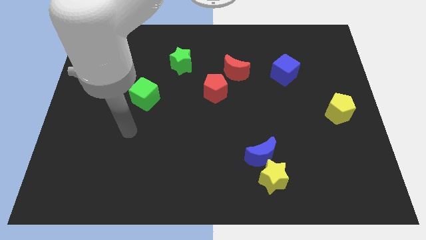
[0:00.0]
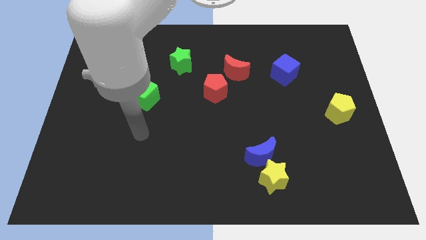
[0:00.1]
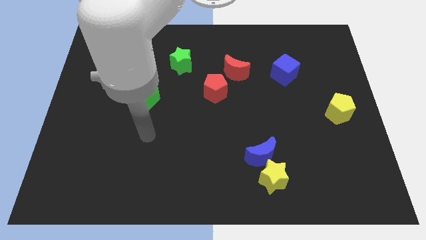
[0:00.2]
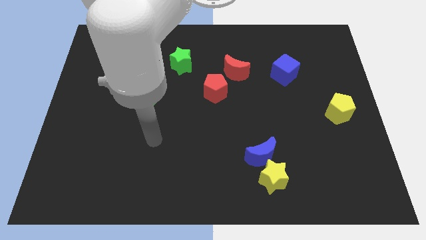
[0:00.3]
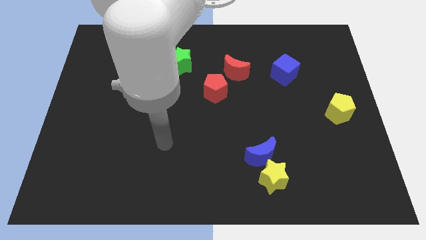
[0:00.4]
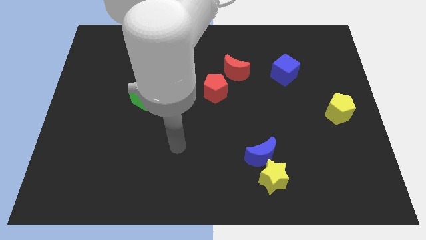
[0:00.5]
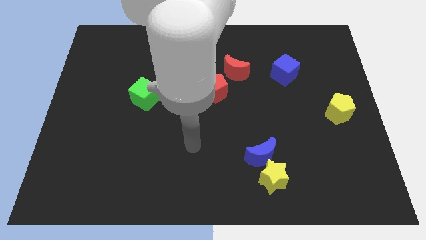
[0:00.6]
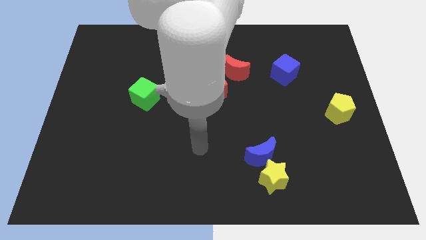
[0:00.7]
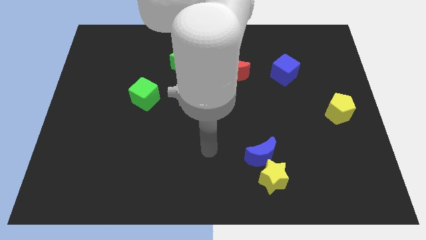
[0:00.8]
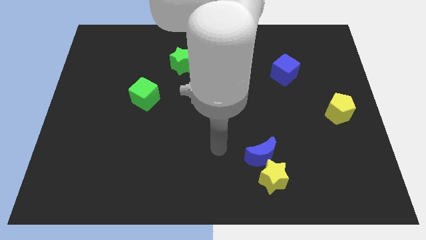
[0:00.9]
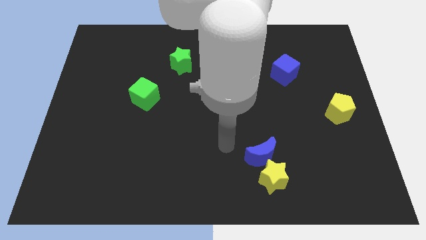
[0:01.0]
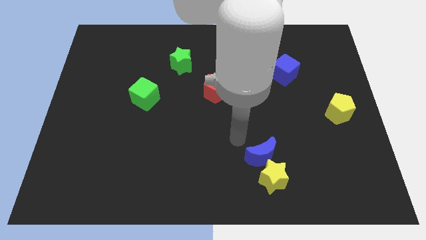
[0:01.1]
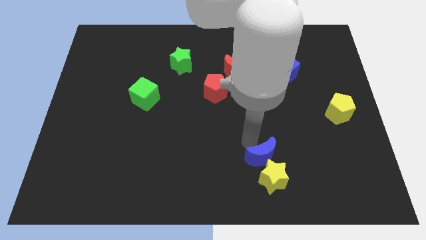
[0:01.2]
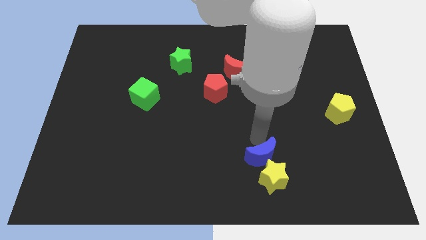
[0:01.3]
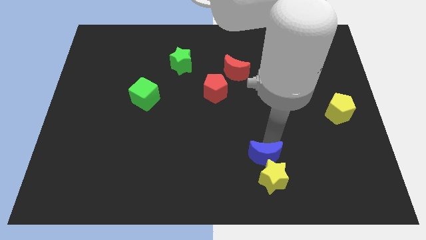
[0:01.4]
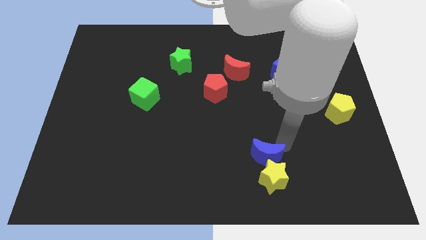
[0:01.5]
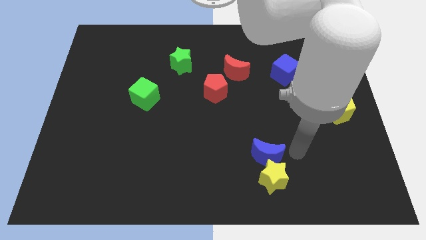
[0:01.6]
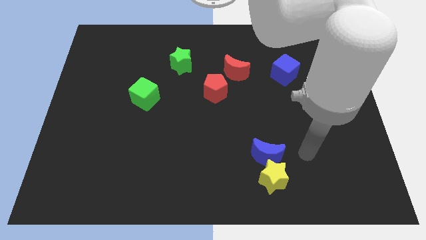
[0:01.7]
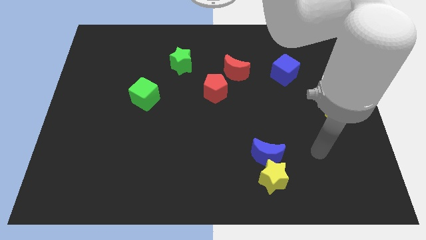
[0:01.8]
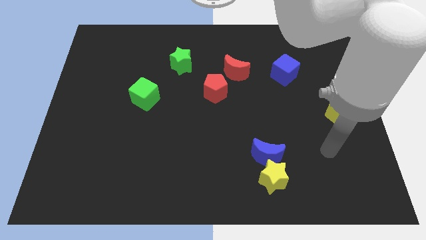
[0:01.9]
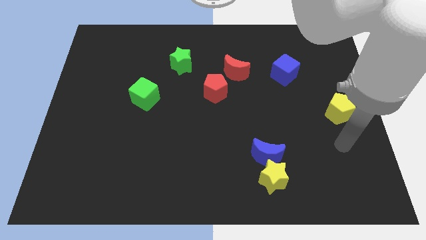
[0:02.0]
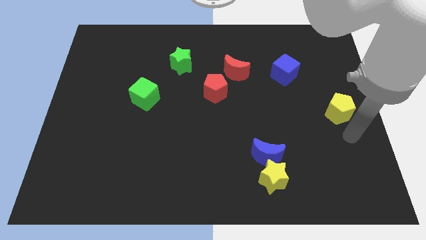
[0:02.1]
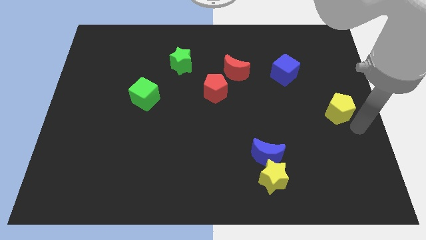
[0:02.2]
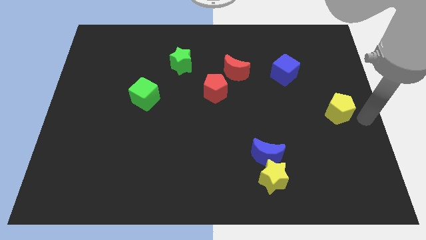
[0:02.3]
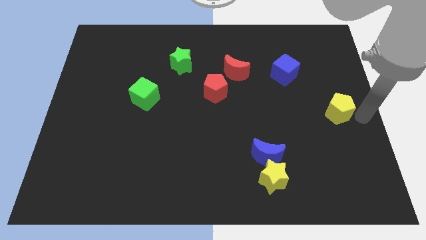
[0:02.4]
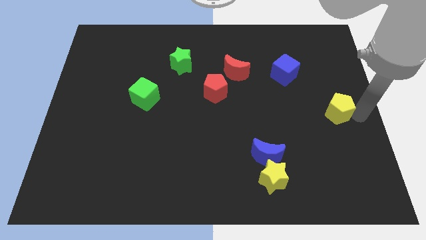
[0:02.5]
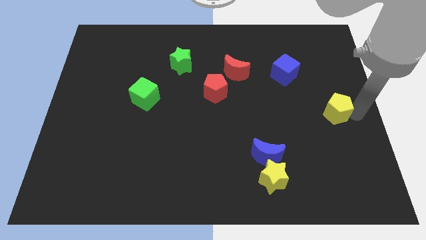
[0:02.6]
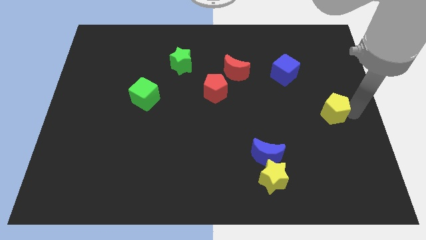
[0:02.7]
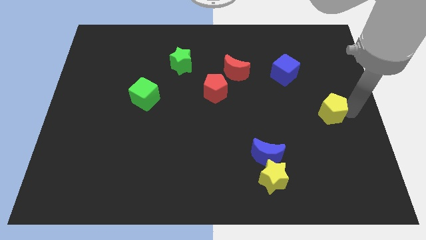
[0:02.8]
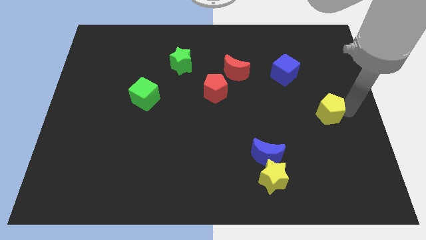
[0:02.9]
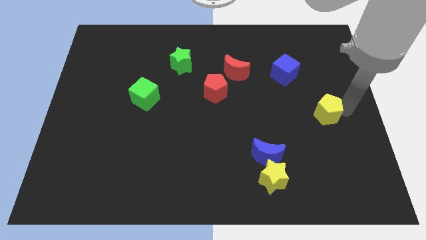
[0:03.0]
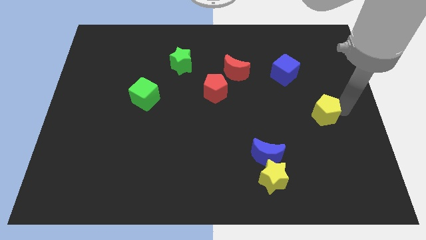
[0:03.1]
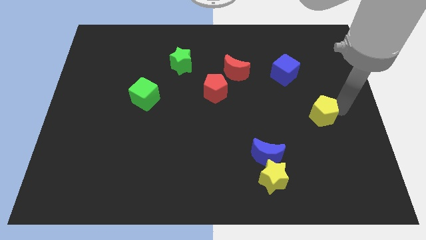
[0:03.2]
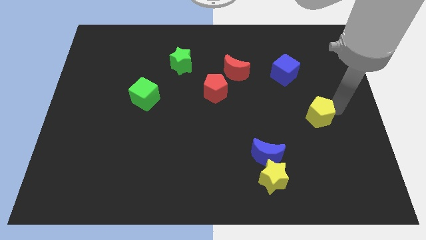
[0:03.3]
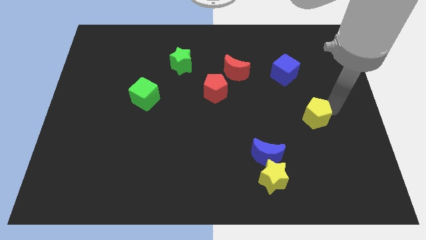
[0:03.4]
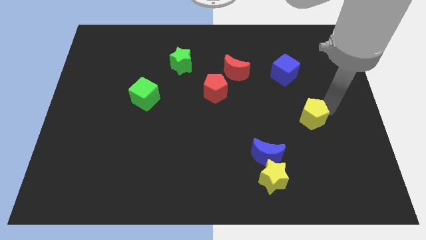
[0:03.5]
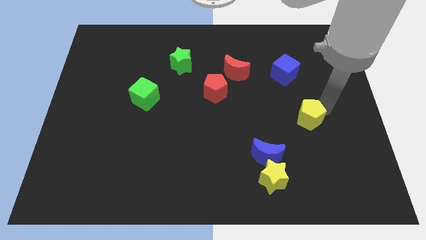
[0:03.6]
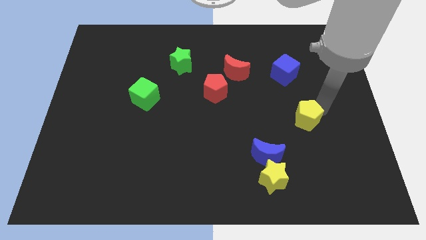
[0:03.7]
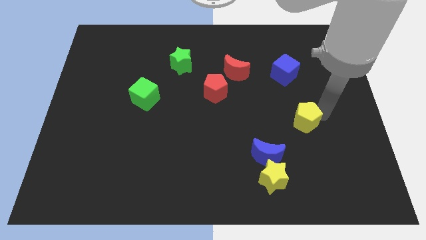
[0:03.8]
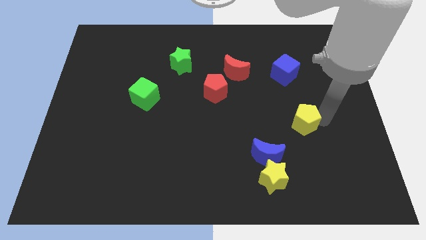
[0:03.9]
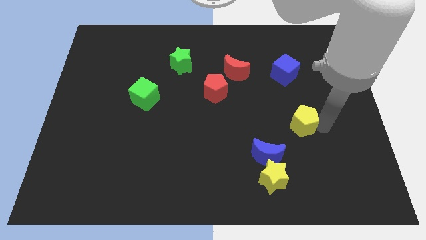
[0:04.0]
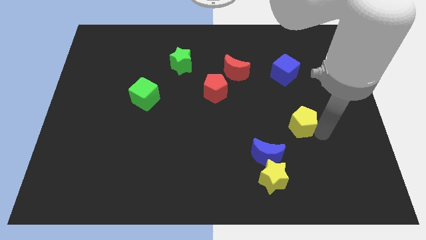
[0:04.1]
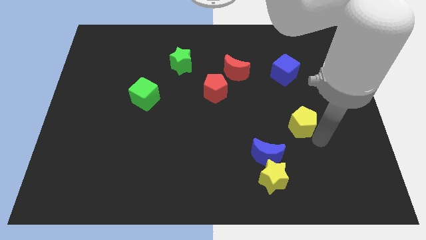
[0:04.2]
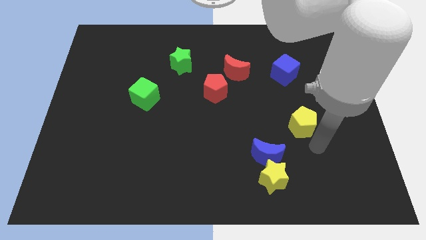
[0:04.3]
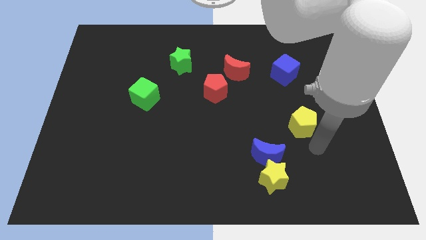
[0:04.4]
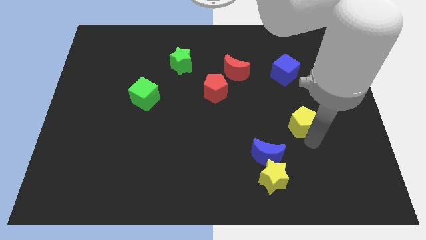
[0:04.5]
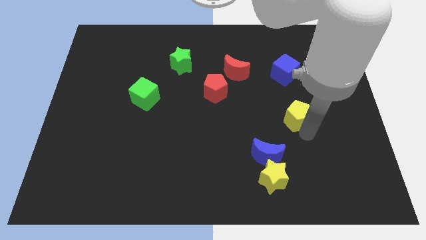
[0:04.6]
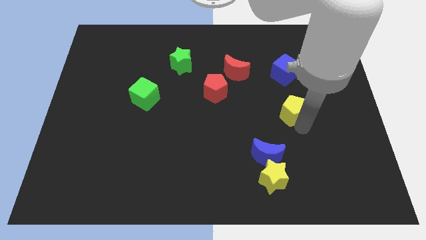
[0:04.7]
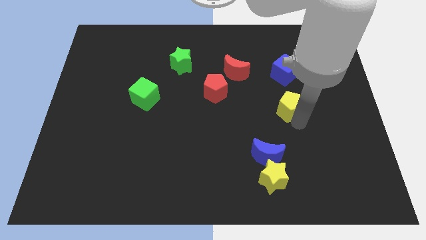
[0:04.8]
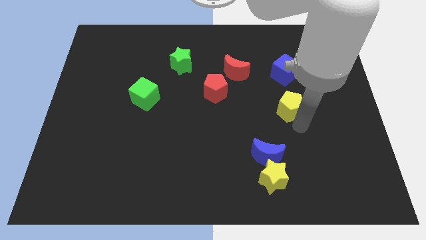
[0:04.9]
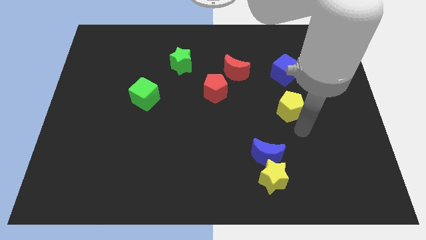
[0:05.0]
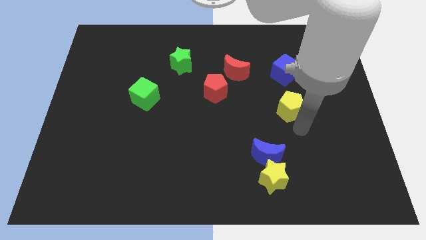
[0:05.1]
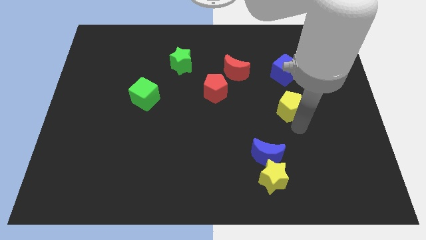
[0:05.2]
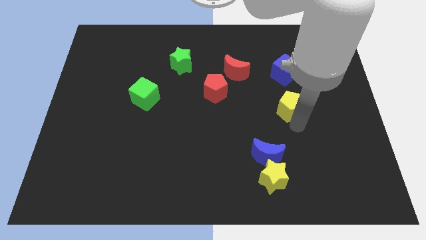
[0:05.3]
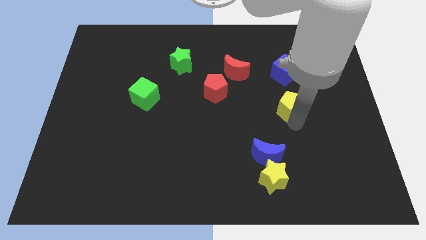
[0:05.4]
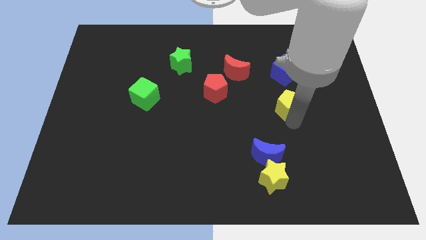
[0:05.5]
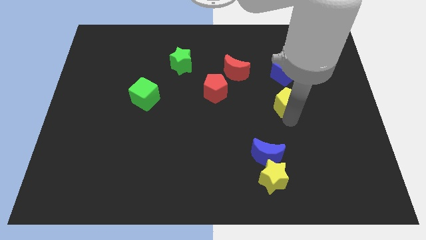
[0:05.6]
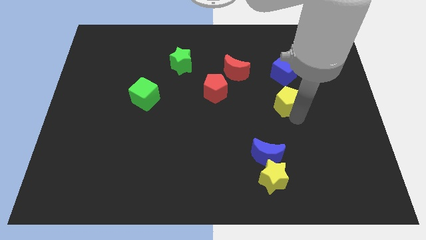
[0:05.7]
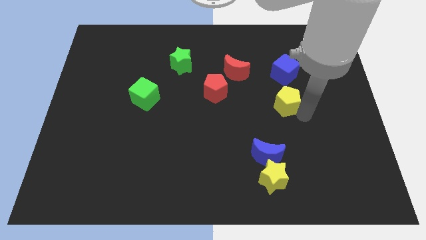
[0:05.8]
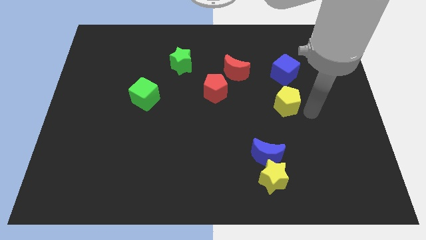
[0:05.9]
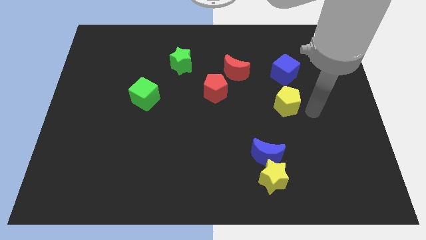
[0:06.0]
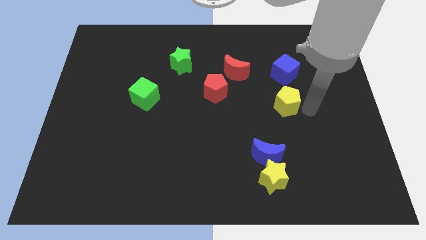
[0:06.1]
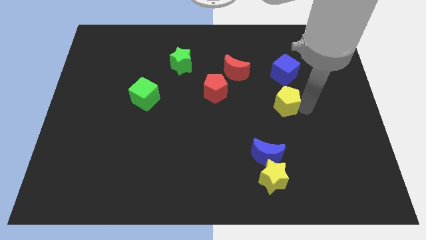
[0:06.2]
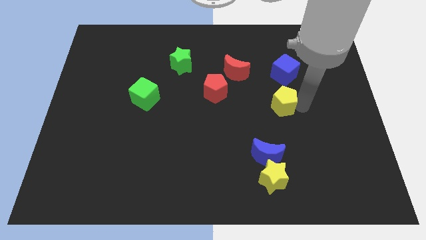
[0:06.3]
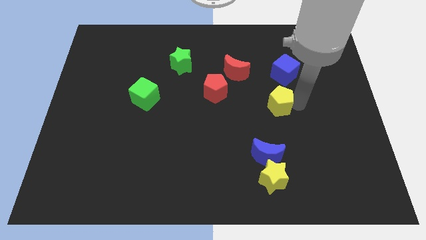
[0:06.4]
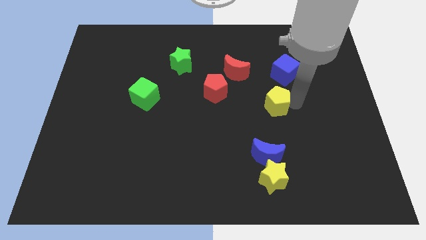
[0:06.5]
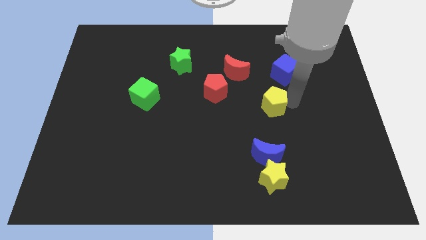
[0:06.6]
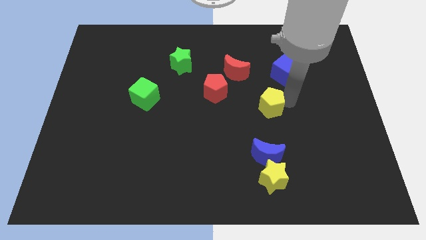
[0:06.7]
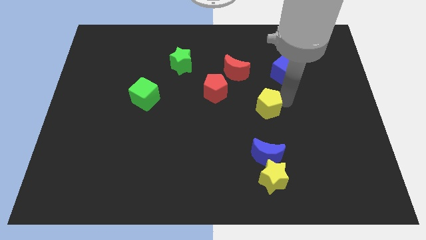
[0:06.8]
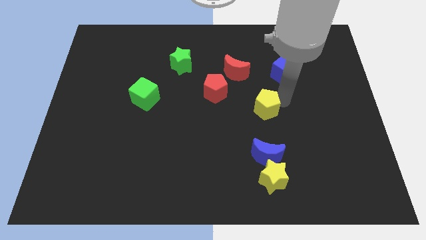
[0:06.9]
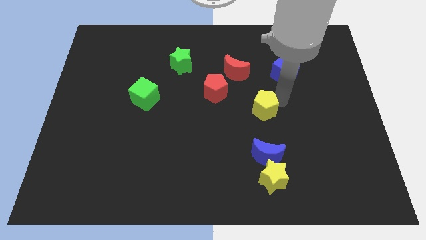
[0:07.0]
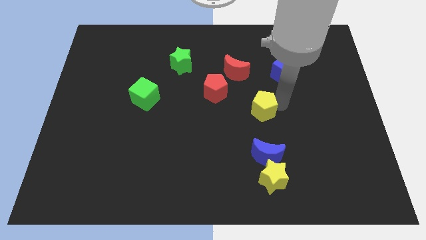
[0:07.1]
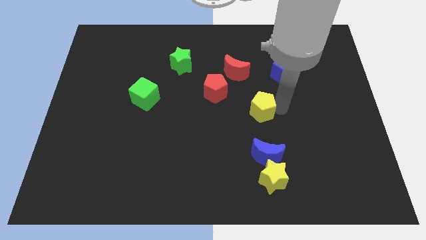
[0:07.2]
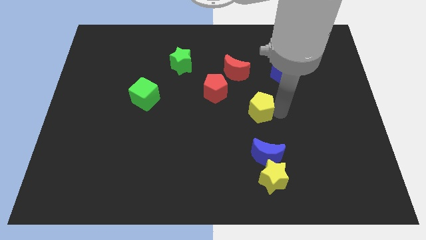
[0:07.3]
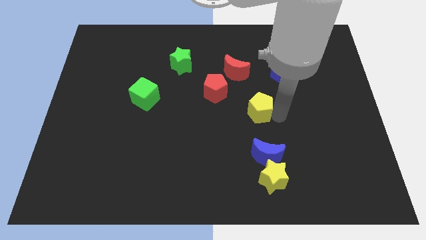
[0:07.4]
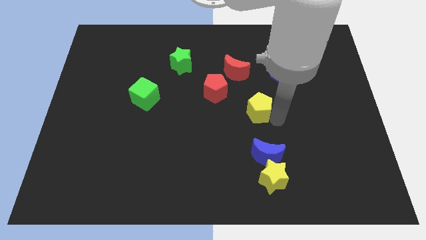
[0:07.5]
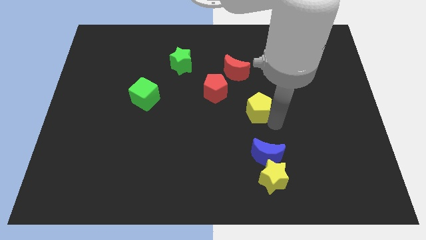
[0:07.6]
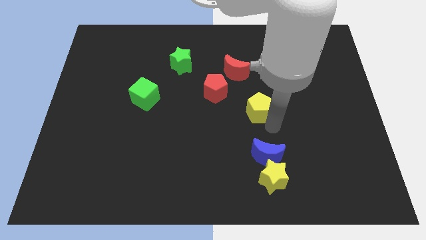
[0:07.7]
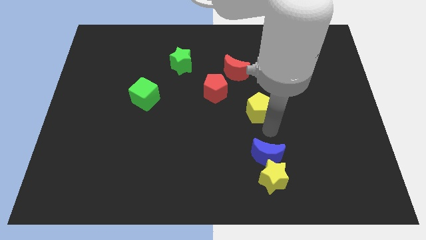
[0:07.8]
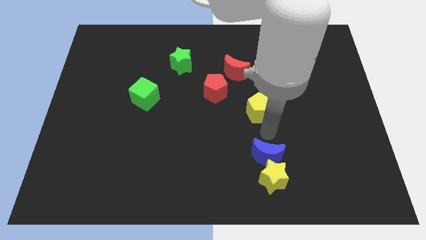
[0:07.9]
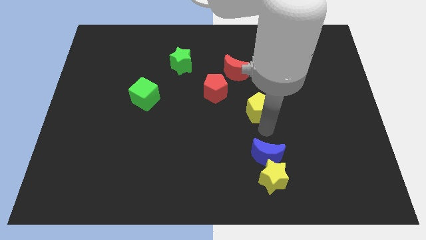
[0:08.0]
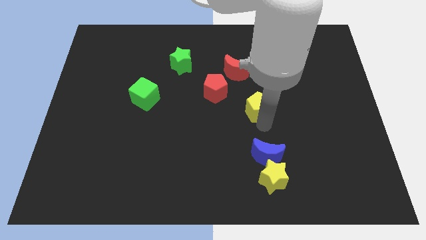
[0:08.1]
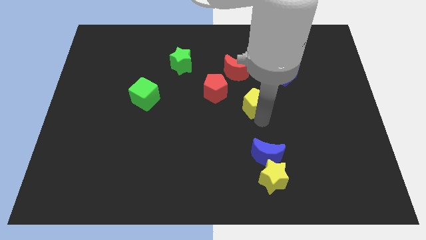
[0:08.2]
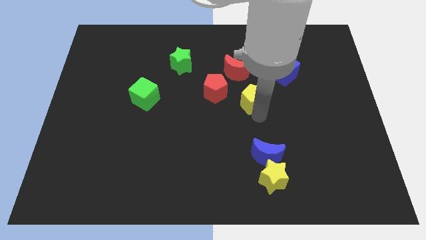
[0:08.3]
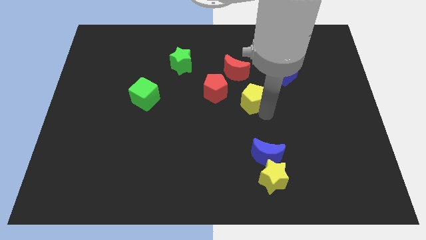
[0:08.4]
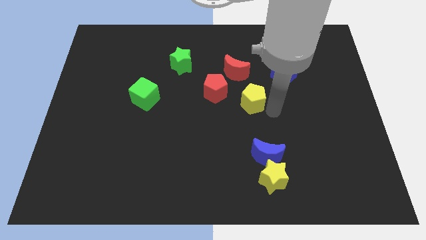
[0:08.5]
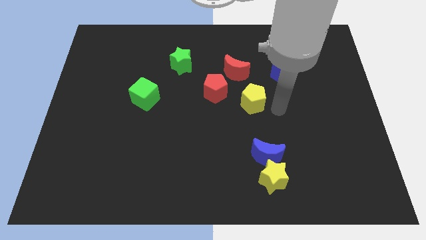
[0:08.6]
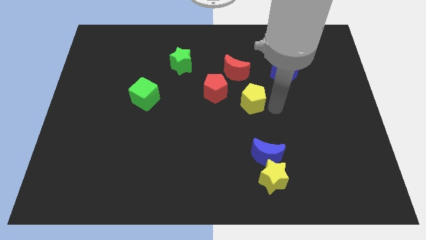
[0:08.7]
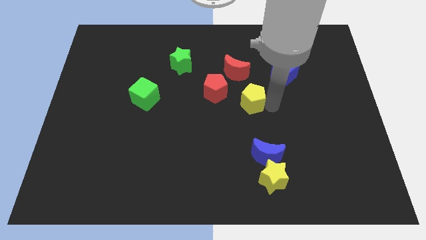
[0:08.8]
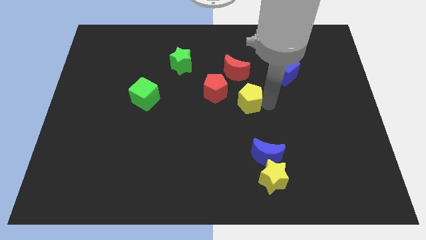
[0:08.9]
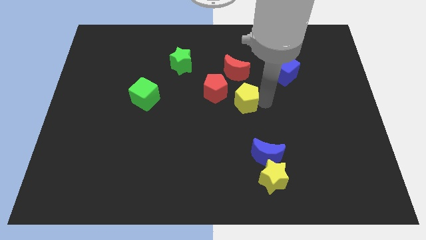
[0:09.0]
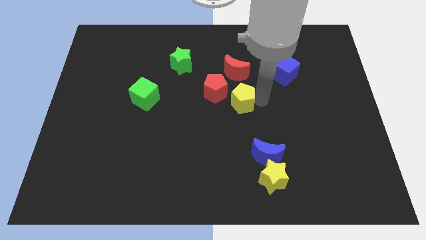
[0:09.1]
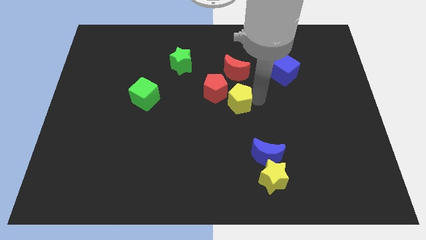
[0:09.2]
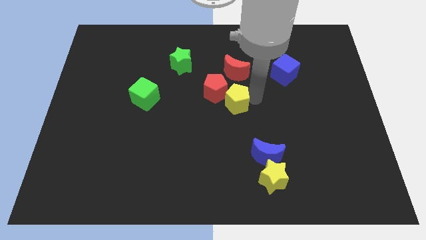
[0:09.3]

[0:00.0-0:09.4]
put the yellow pentagon close to the red pentagon
